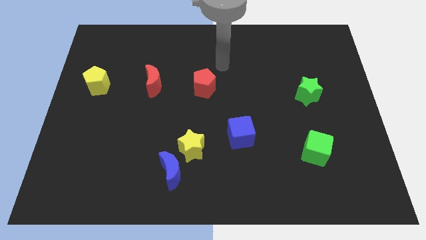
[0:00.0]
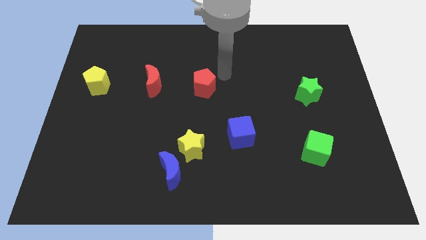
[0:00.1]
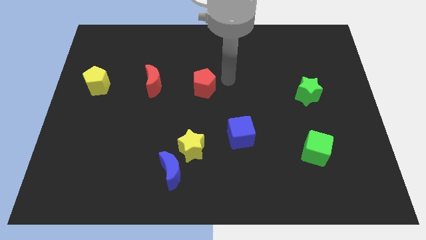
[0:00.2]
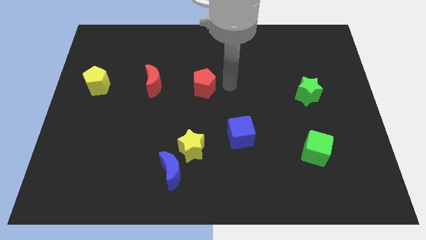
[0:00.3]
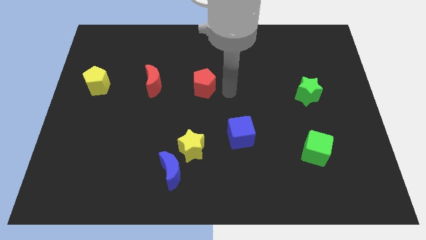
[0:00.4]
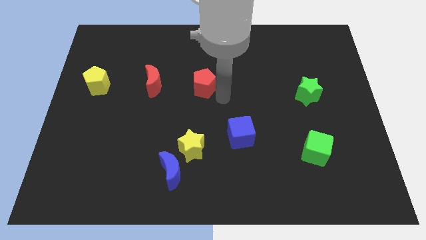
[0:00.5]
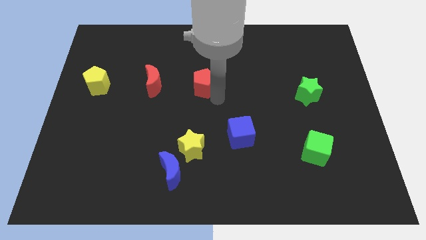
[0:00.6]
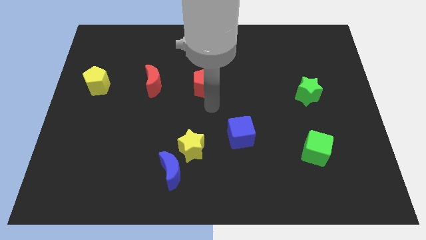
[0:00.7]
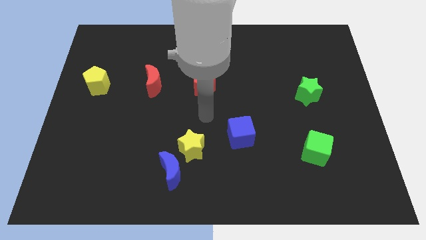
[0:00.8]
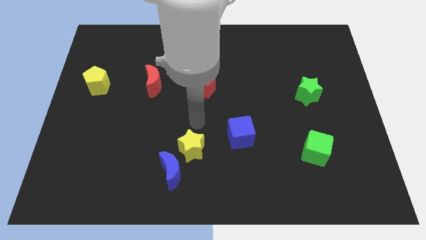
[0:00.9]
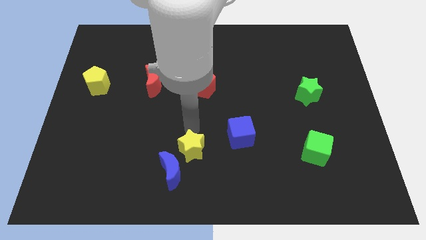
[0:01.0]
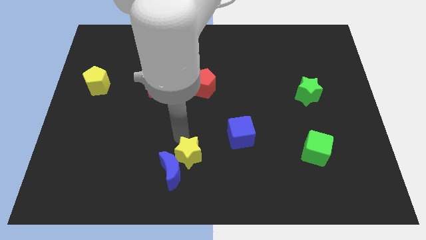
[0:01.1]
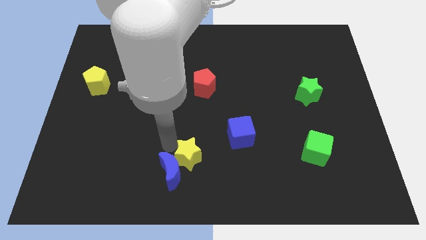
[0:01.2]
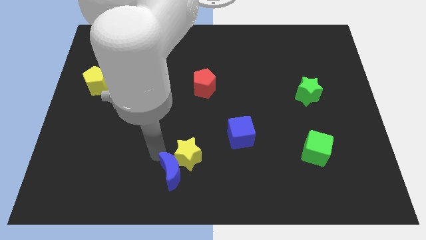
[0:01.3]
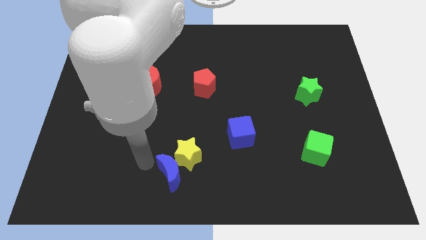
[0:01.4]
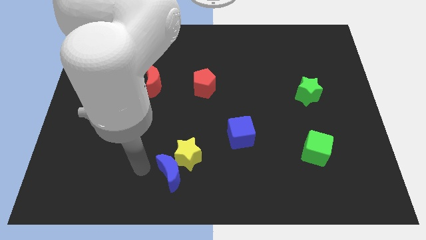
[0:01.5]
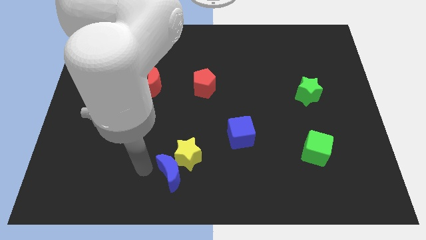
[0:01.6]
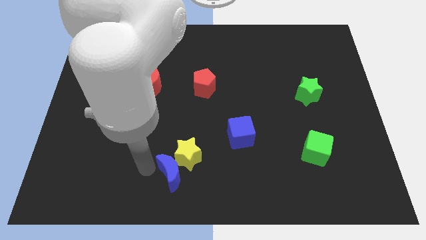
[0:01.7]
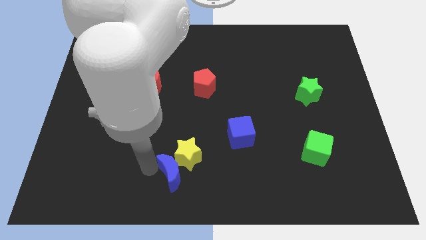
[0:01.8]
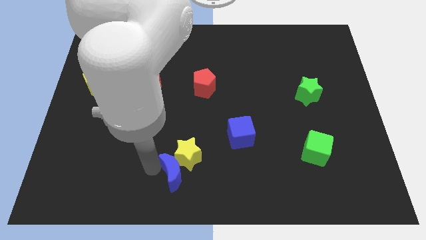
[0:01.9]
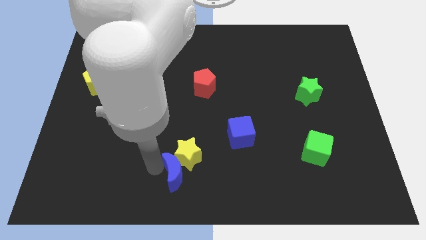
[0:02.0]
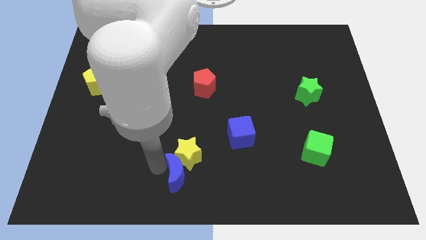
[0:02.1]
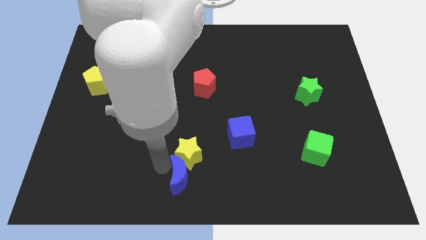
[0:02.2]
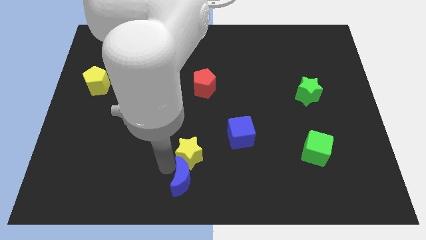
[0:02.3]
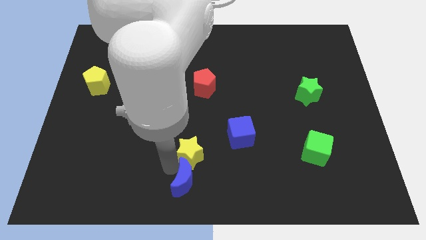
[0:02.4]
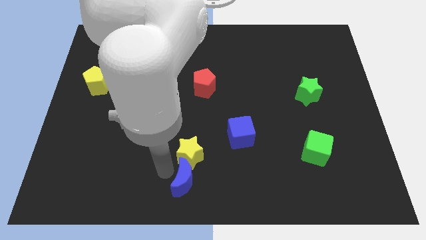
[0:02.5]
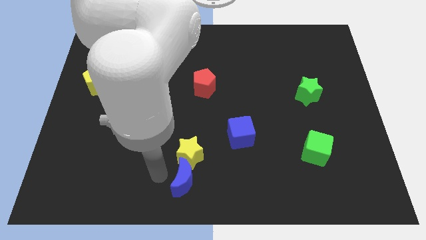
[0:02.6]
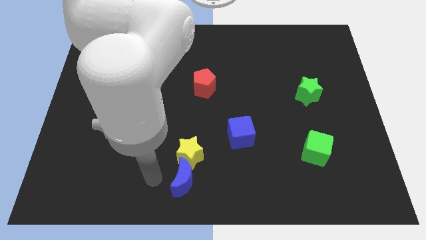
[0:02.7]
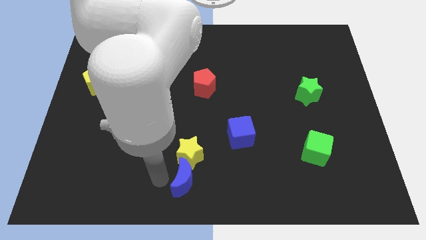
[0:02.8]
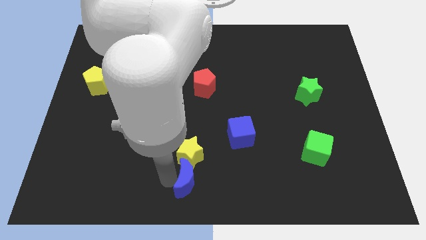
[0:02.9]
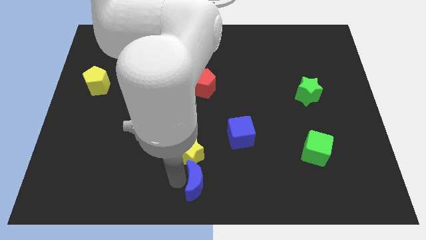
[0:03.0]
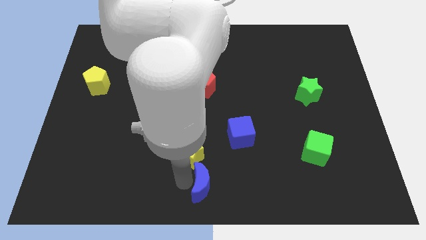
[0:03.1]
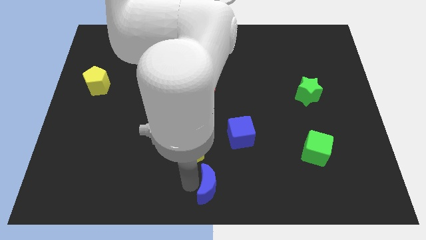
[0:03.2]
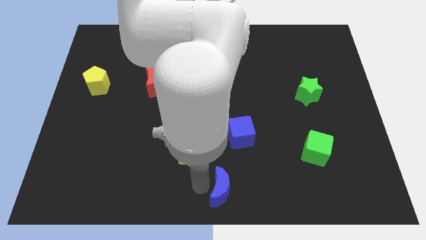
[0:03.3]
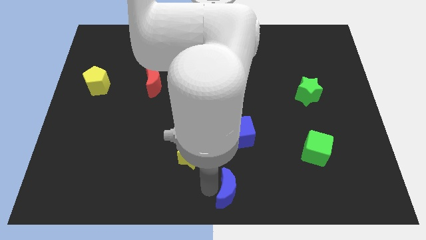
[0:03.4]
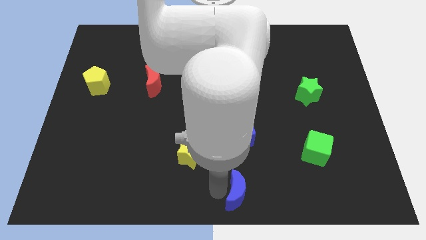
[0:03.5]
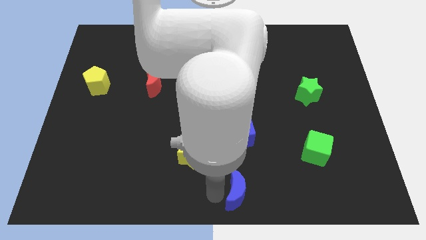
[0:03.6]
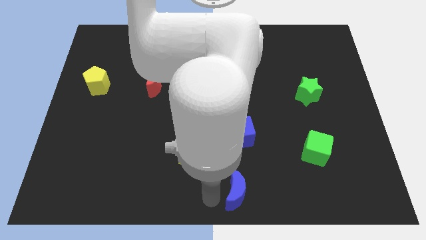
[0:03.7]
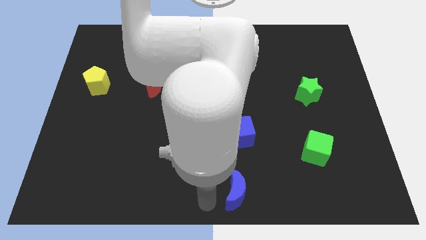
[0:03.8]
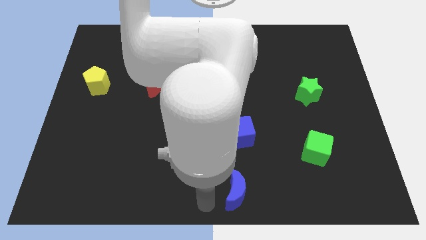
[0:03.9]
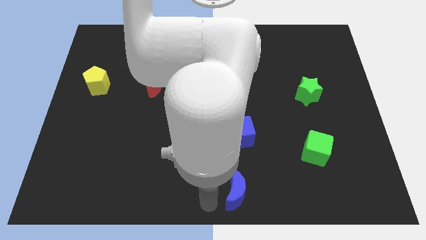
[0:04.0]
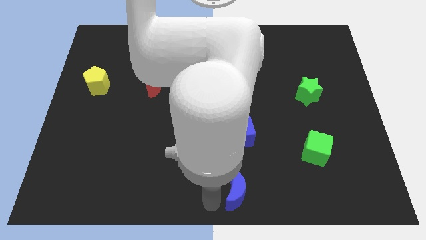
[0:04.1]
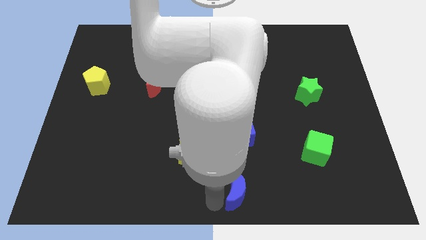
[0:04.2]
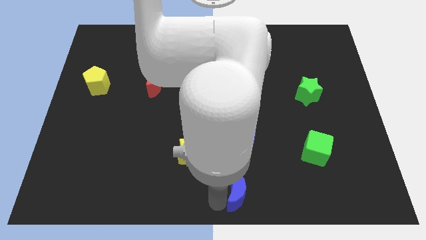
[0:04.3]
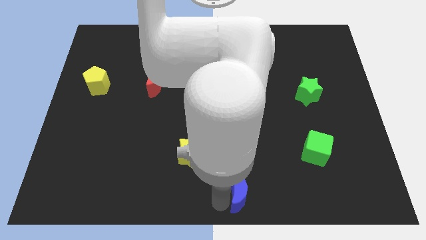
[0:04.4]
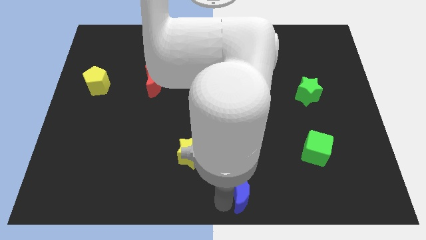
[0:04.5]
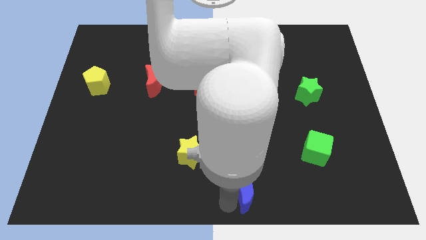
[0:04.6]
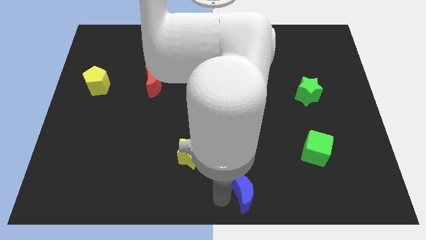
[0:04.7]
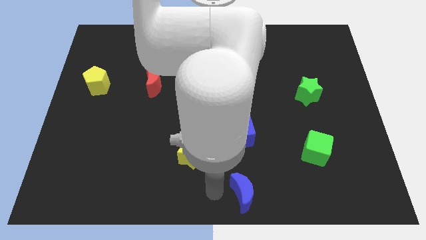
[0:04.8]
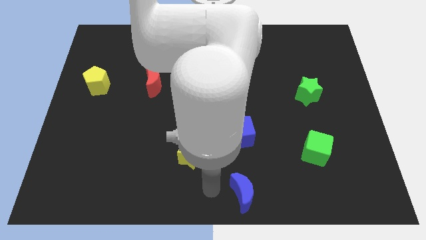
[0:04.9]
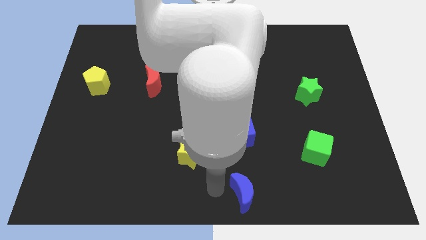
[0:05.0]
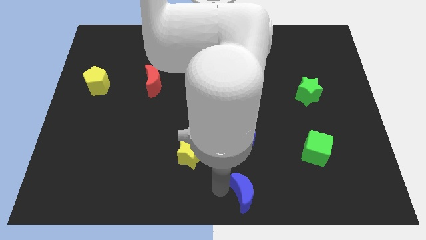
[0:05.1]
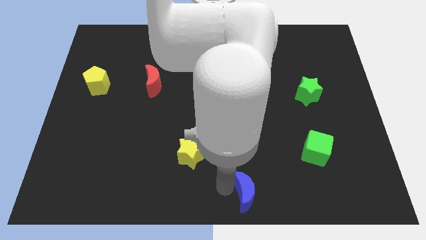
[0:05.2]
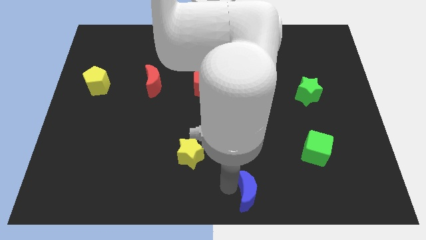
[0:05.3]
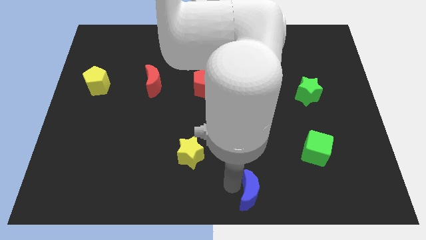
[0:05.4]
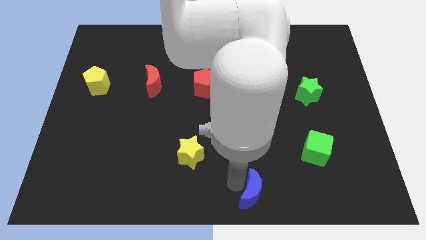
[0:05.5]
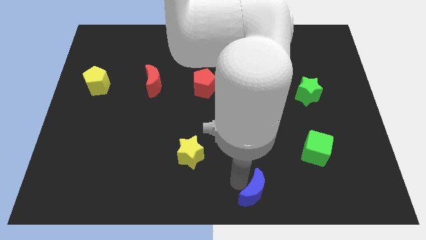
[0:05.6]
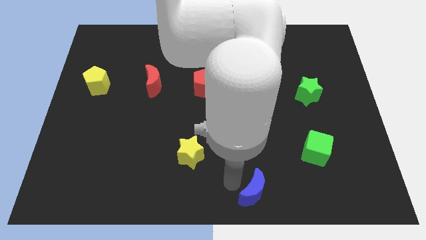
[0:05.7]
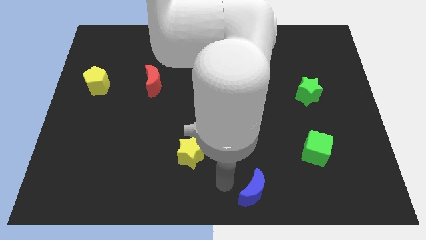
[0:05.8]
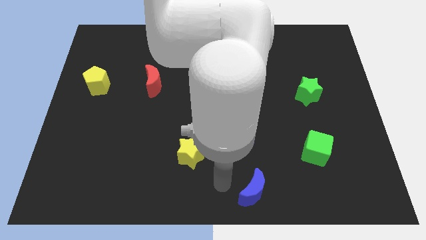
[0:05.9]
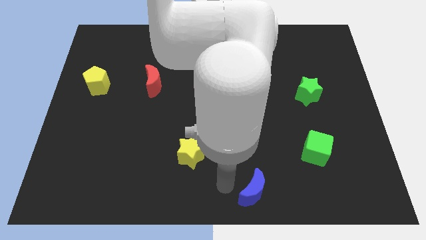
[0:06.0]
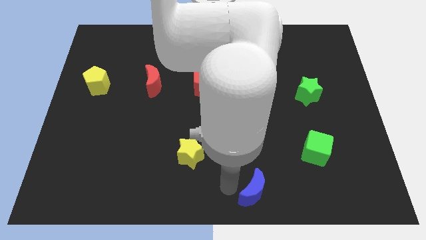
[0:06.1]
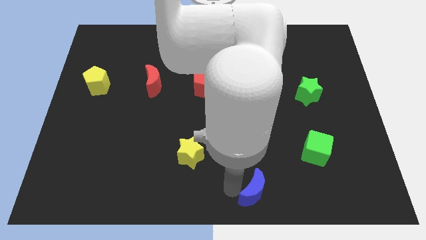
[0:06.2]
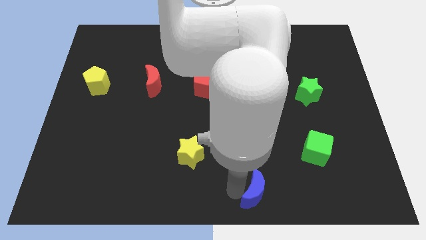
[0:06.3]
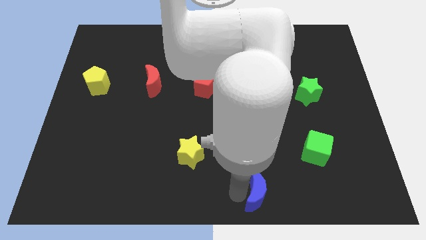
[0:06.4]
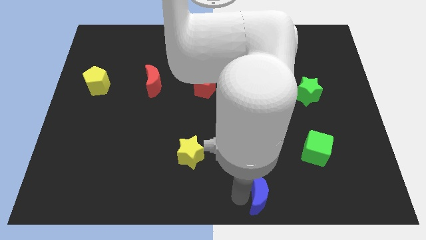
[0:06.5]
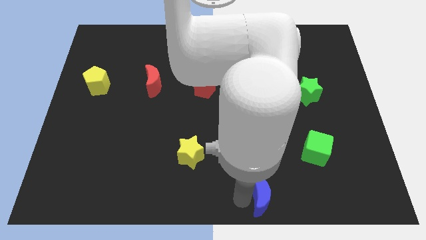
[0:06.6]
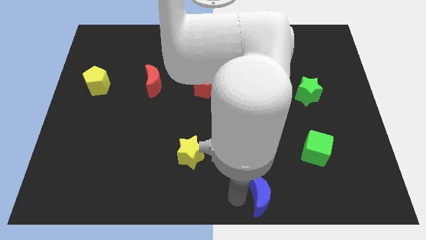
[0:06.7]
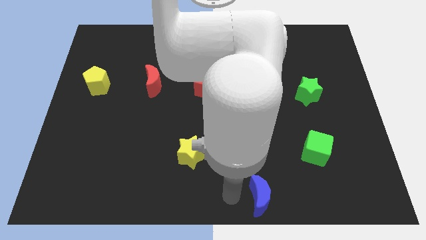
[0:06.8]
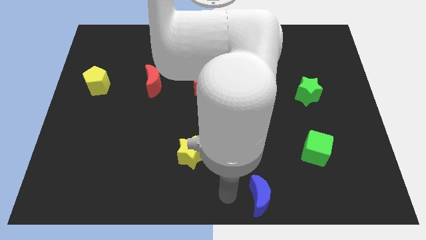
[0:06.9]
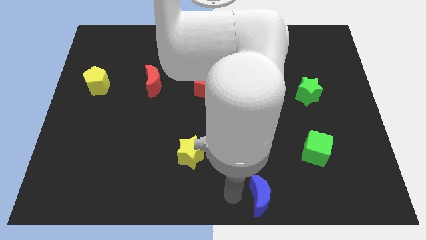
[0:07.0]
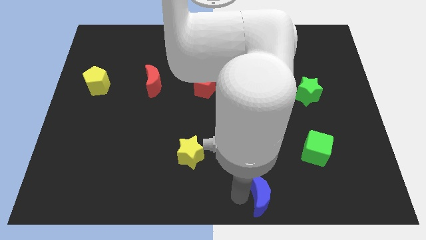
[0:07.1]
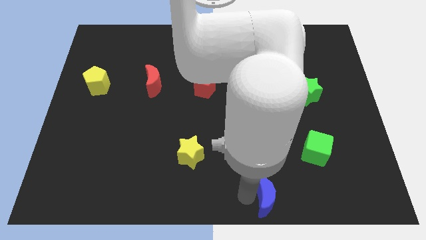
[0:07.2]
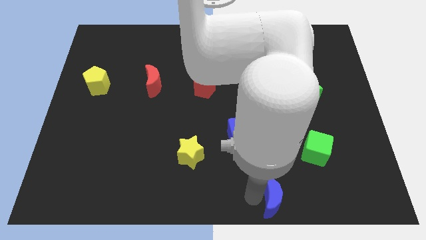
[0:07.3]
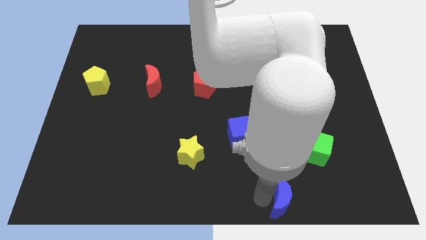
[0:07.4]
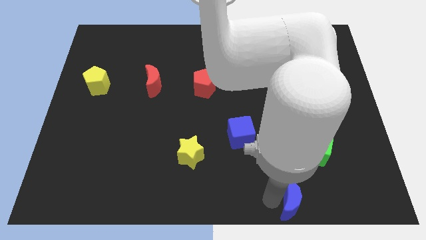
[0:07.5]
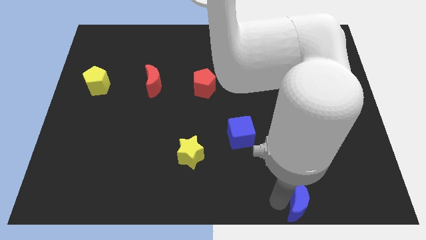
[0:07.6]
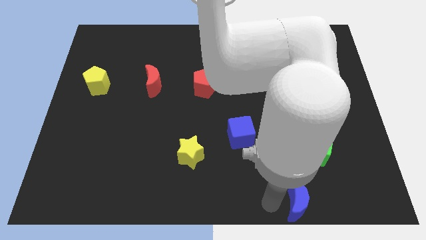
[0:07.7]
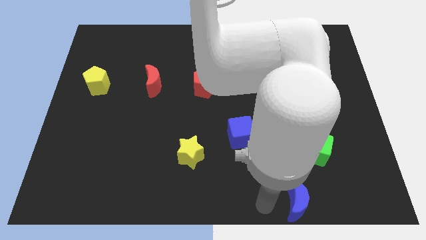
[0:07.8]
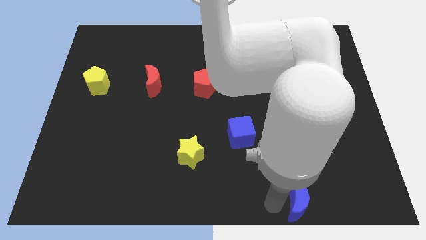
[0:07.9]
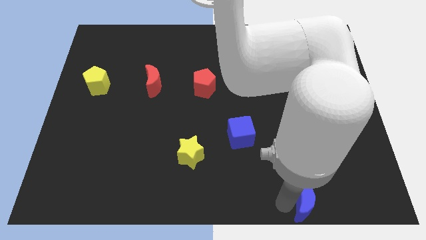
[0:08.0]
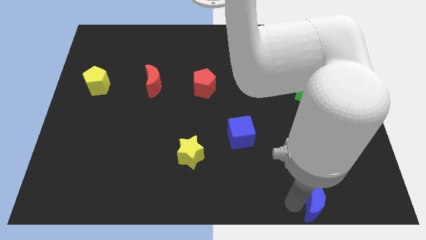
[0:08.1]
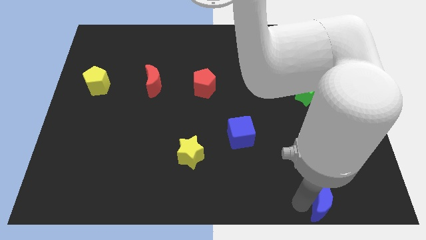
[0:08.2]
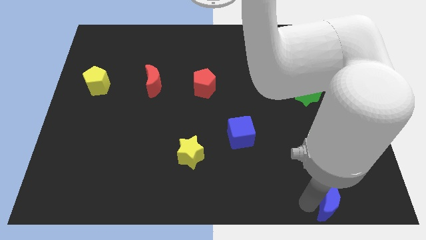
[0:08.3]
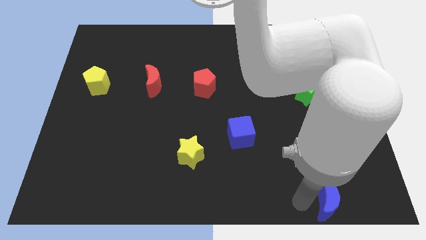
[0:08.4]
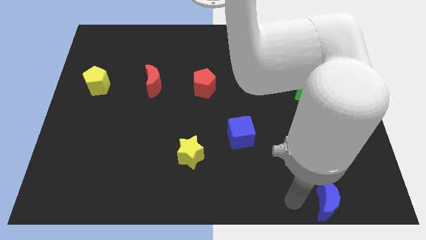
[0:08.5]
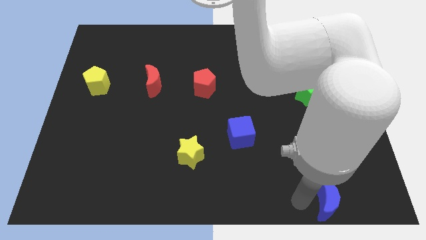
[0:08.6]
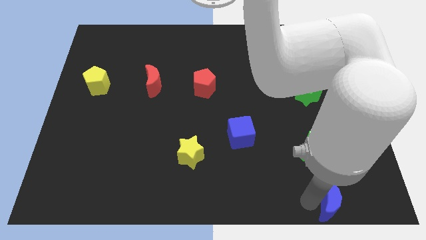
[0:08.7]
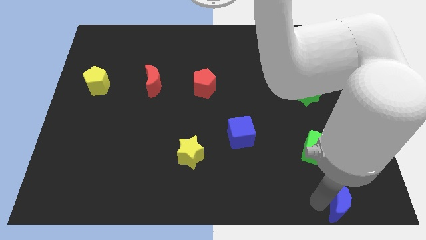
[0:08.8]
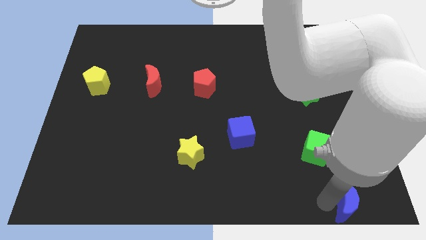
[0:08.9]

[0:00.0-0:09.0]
slide the blue moon to the bottom right
